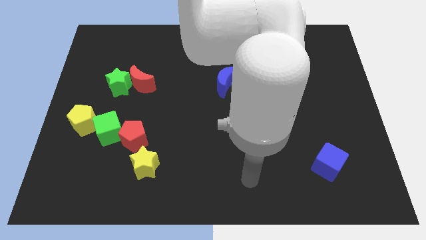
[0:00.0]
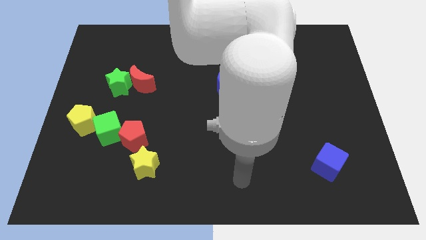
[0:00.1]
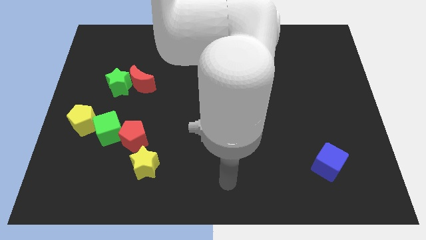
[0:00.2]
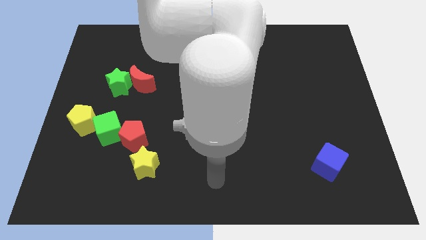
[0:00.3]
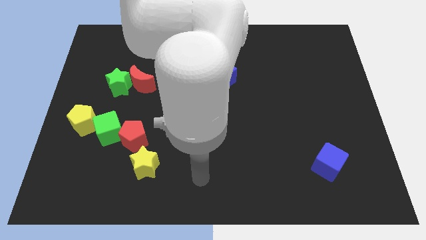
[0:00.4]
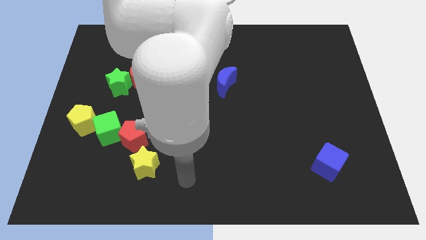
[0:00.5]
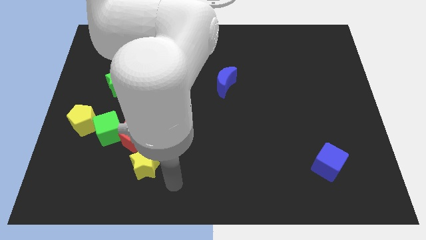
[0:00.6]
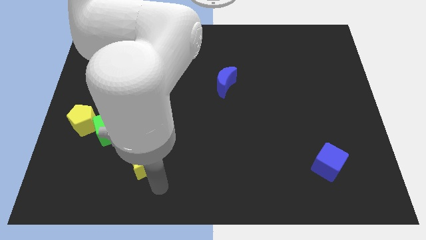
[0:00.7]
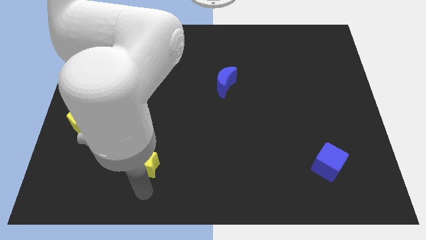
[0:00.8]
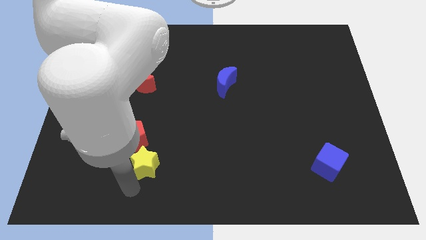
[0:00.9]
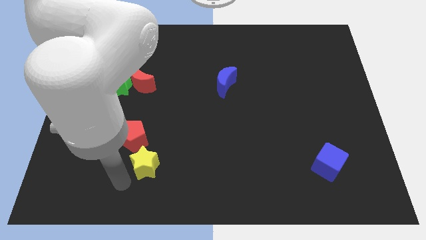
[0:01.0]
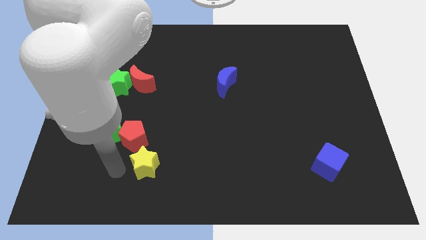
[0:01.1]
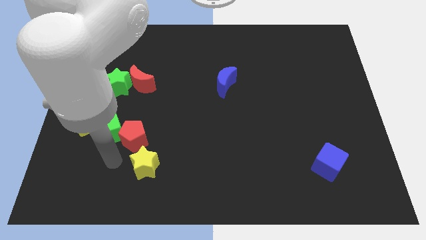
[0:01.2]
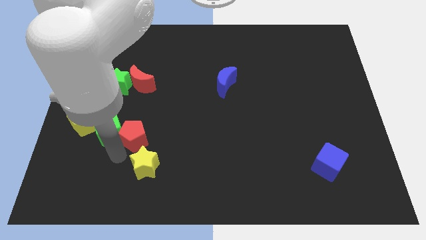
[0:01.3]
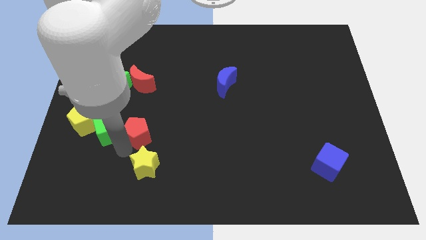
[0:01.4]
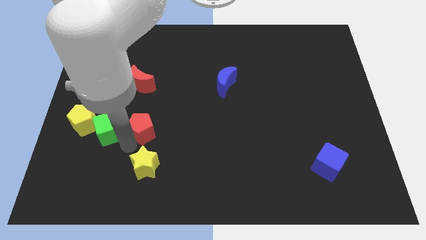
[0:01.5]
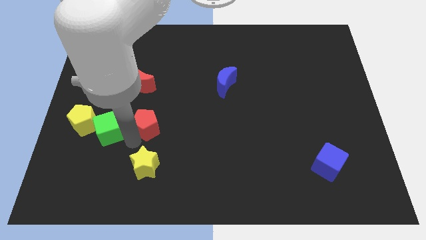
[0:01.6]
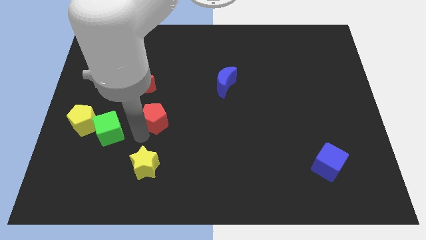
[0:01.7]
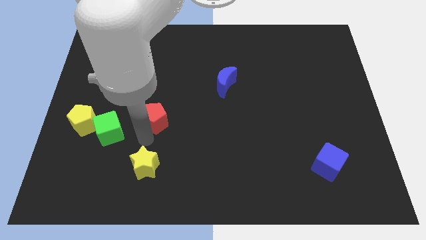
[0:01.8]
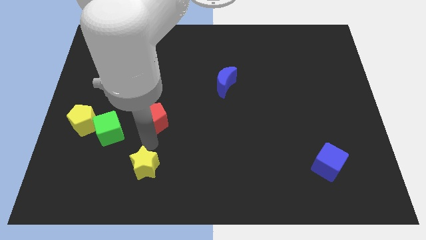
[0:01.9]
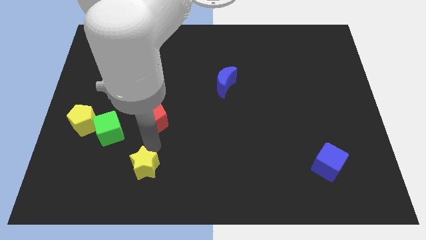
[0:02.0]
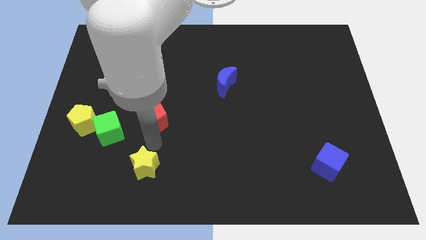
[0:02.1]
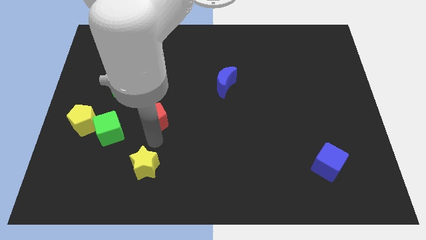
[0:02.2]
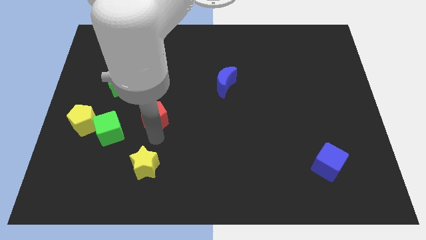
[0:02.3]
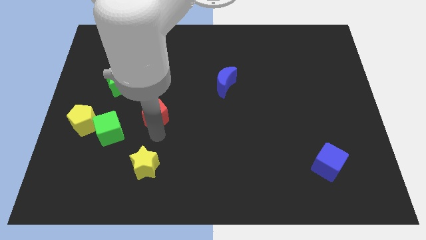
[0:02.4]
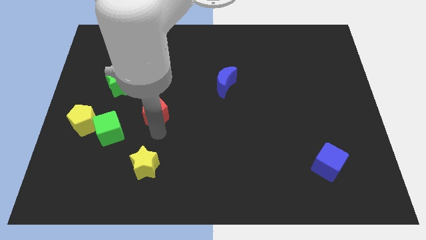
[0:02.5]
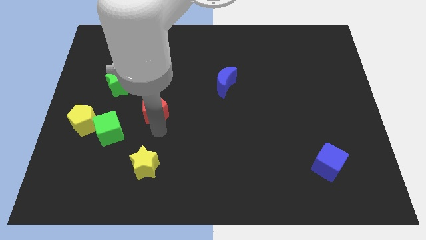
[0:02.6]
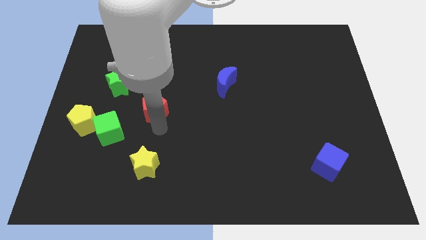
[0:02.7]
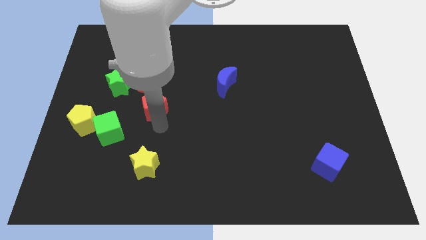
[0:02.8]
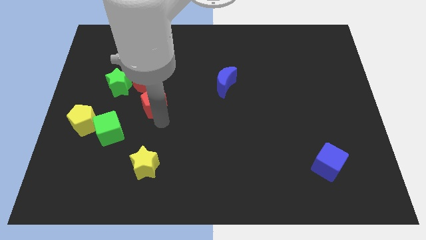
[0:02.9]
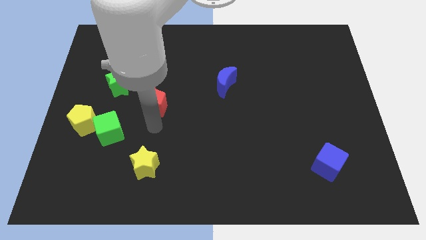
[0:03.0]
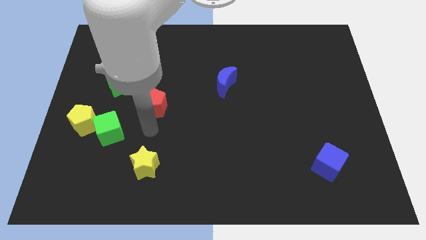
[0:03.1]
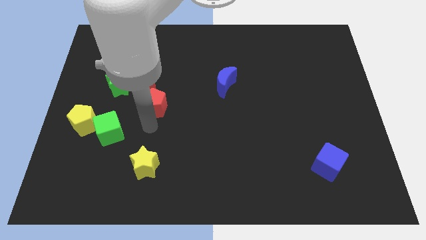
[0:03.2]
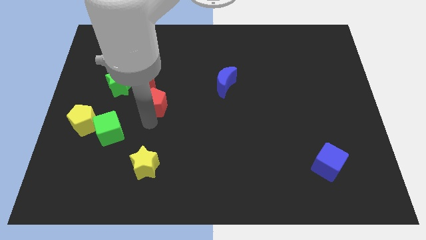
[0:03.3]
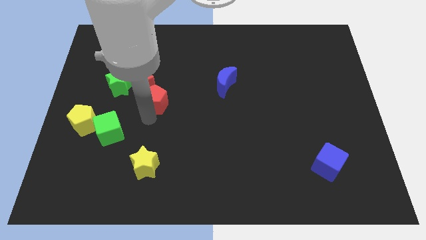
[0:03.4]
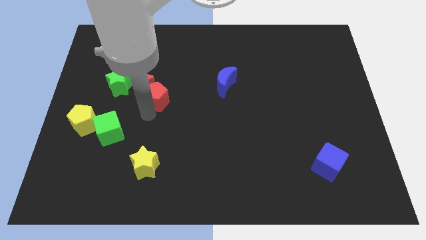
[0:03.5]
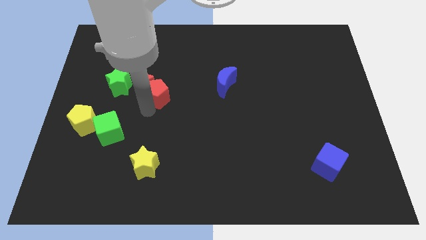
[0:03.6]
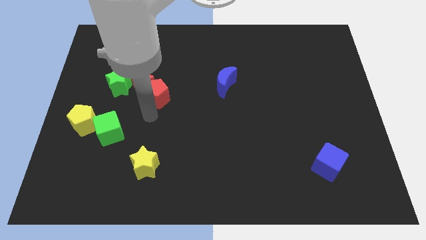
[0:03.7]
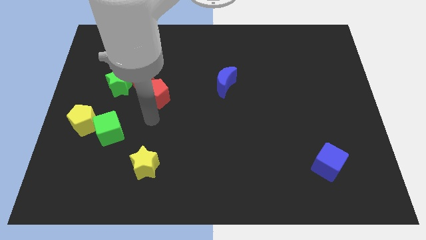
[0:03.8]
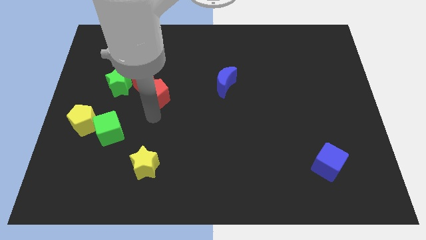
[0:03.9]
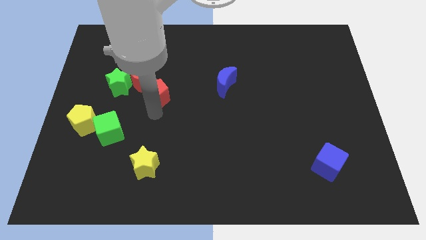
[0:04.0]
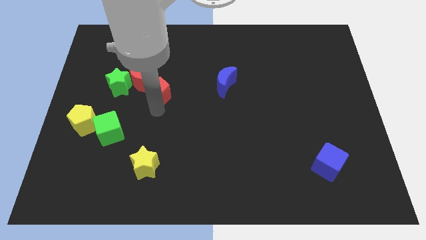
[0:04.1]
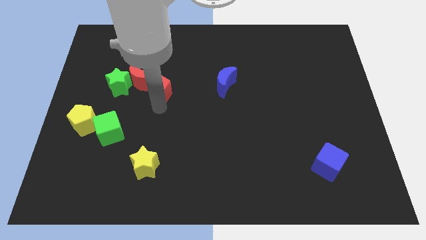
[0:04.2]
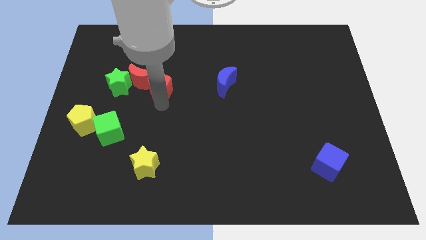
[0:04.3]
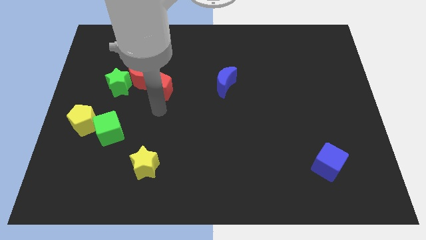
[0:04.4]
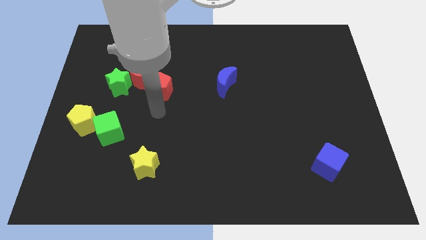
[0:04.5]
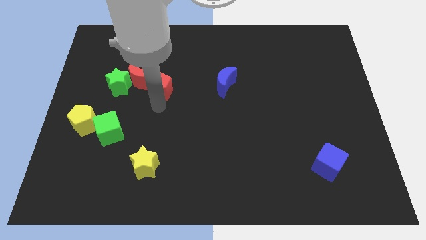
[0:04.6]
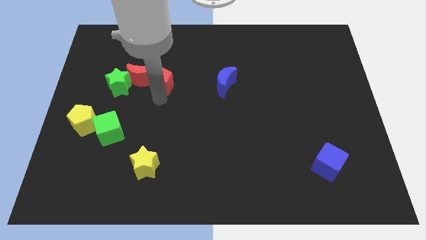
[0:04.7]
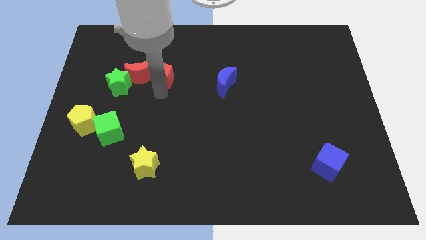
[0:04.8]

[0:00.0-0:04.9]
put the red pentagon to the top right side of the red moon

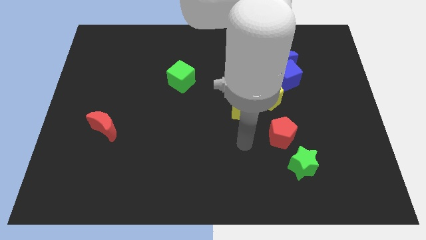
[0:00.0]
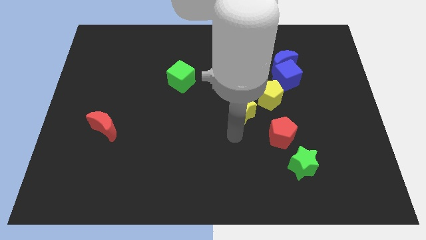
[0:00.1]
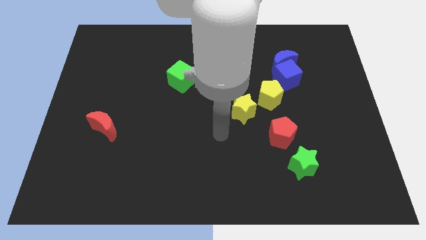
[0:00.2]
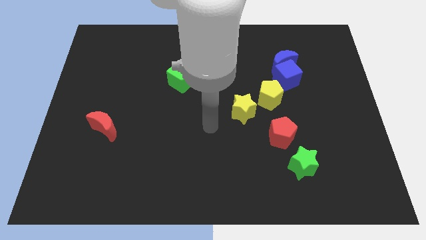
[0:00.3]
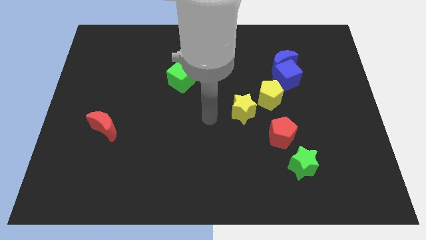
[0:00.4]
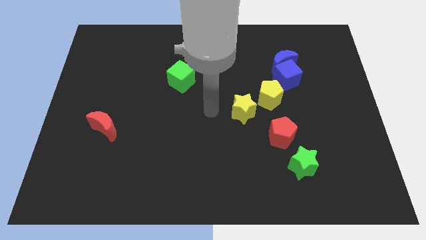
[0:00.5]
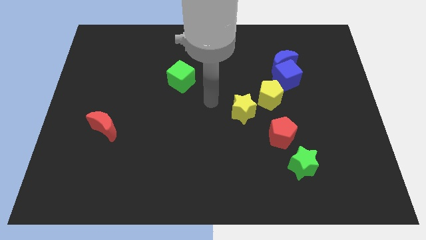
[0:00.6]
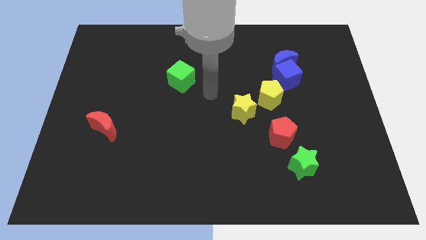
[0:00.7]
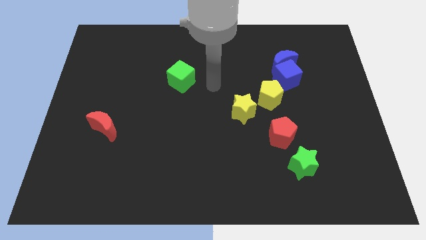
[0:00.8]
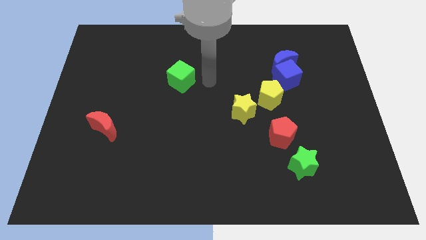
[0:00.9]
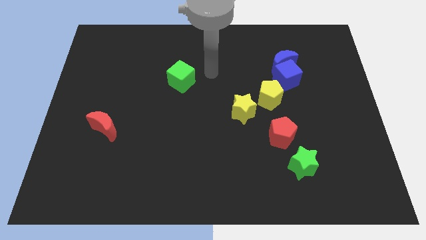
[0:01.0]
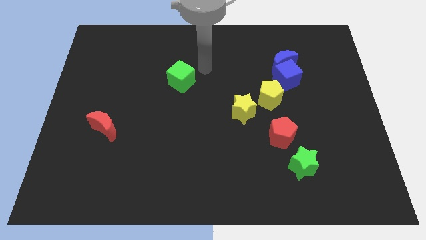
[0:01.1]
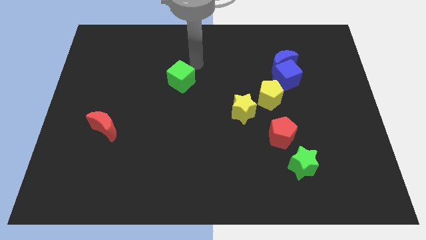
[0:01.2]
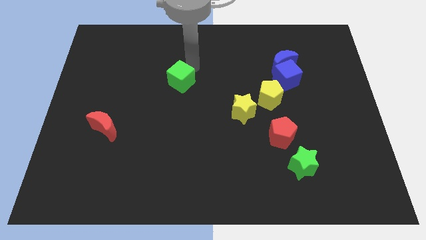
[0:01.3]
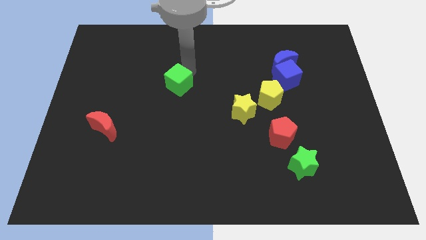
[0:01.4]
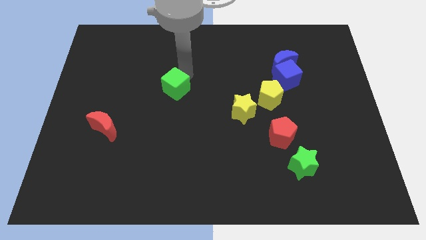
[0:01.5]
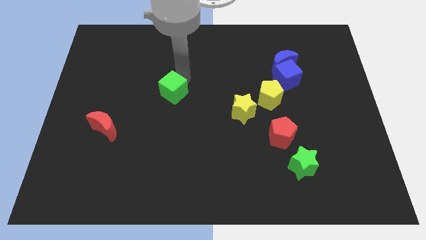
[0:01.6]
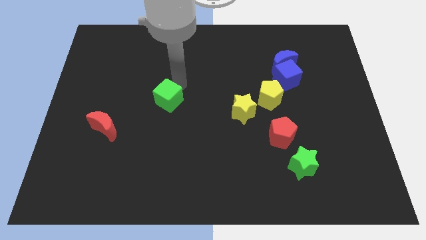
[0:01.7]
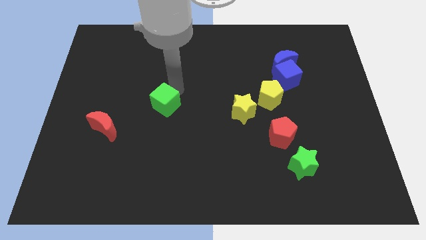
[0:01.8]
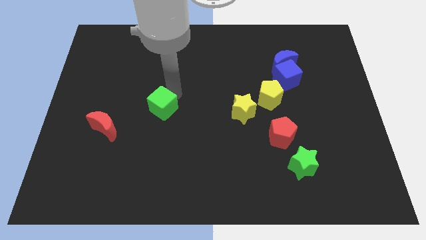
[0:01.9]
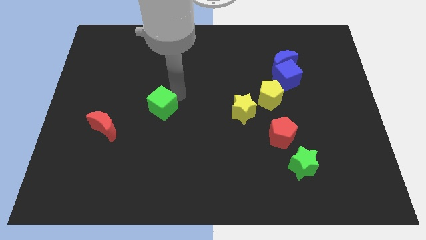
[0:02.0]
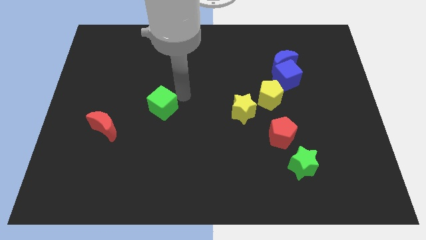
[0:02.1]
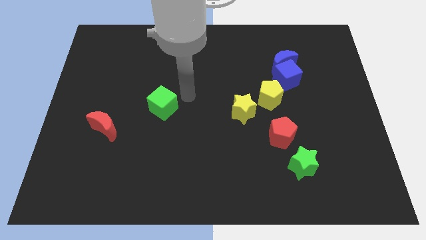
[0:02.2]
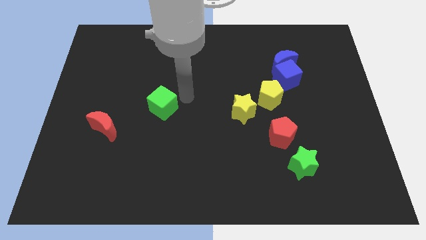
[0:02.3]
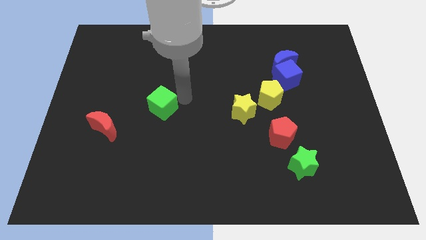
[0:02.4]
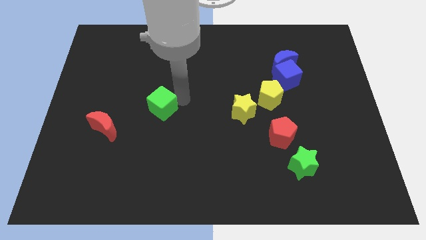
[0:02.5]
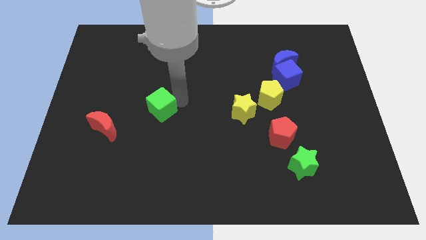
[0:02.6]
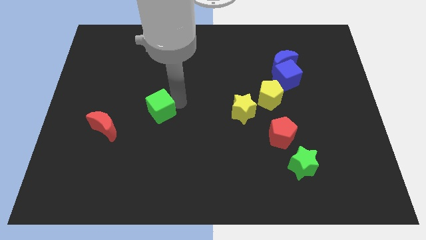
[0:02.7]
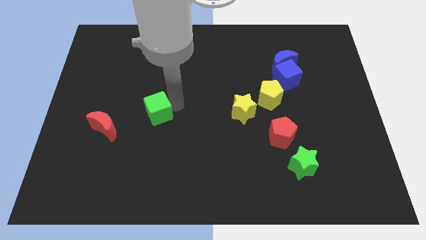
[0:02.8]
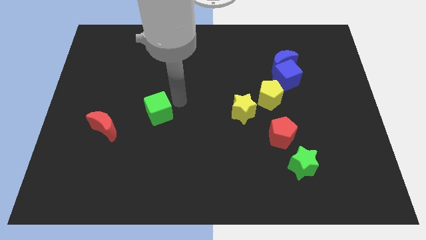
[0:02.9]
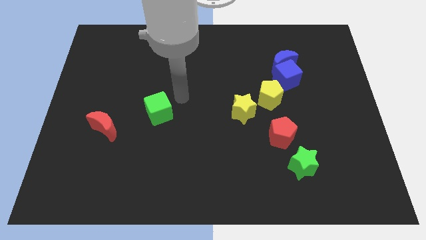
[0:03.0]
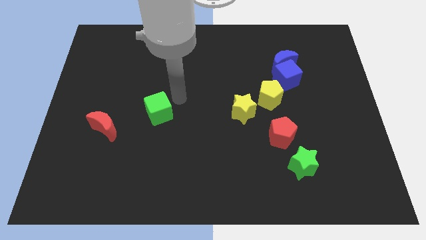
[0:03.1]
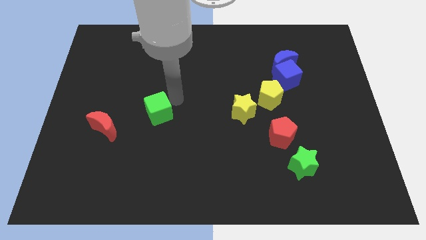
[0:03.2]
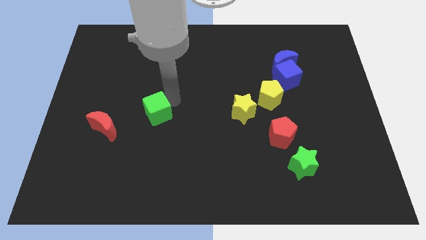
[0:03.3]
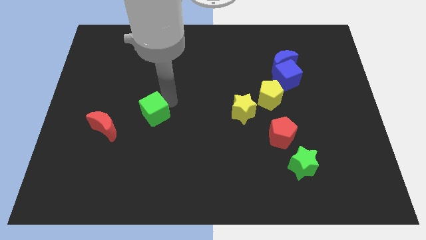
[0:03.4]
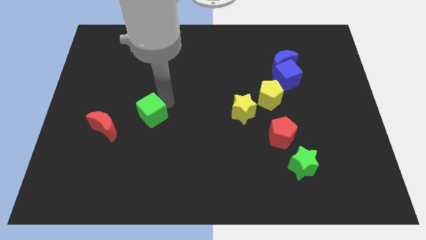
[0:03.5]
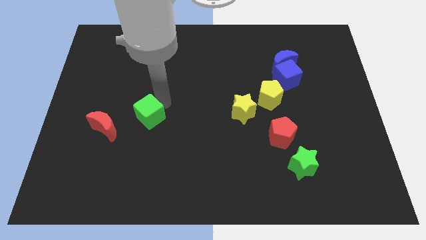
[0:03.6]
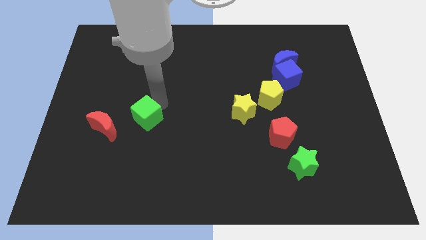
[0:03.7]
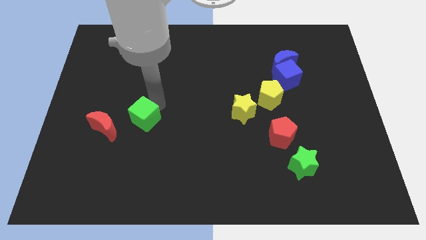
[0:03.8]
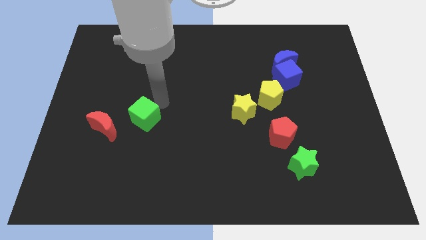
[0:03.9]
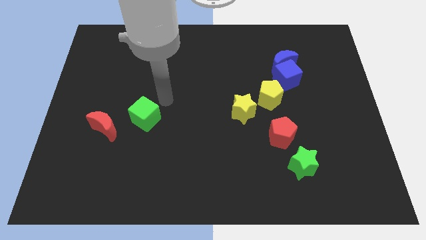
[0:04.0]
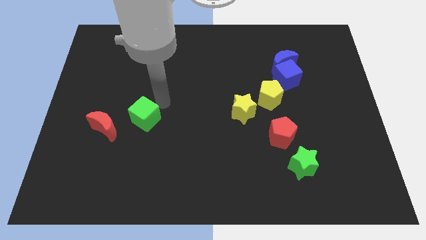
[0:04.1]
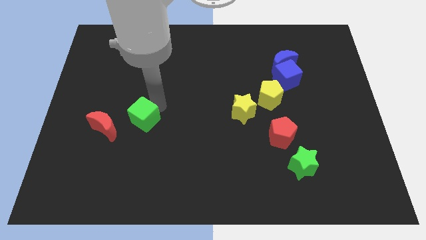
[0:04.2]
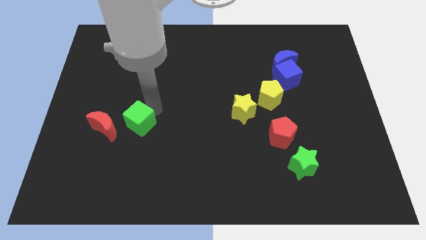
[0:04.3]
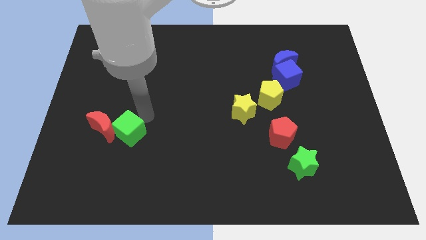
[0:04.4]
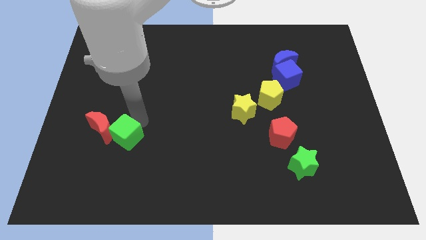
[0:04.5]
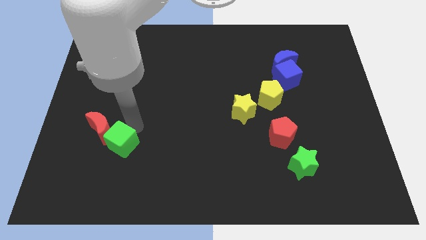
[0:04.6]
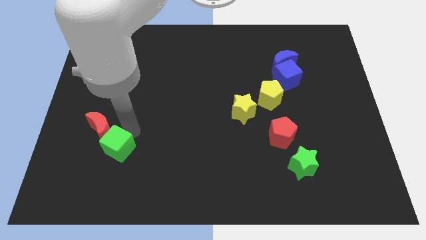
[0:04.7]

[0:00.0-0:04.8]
push the green cube to the bottom side of the red moon
